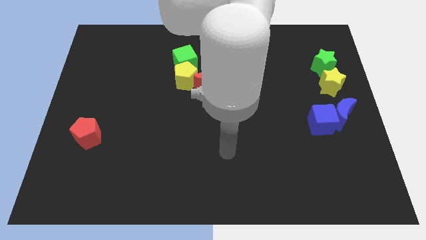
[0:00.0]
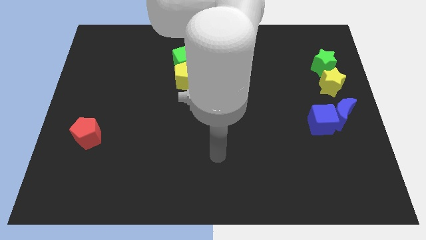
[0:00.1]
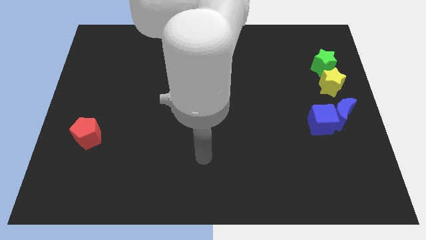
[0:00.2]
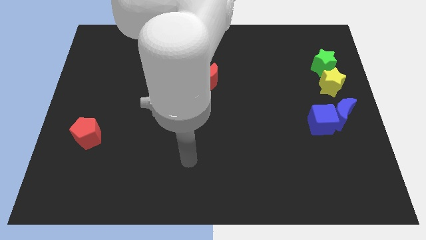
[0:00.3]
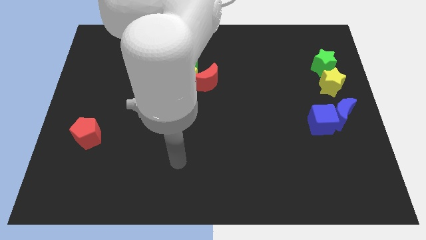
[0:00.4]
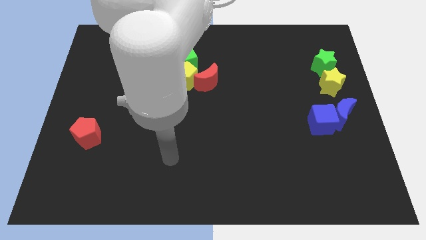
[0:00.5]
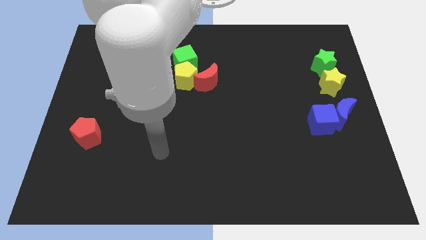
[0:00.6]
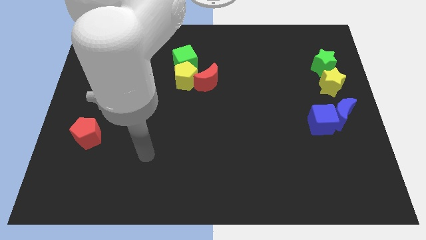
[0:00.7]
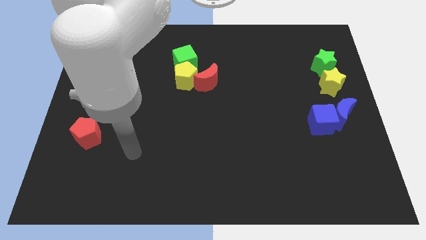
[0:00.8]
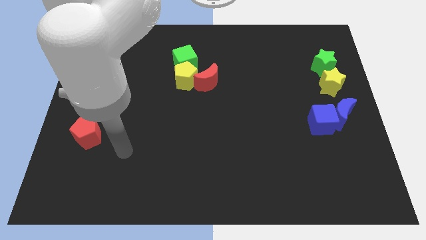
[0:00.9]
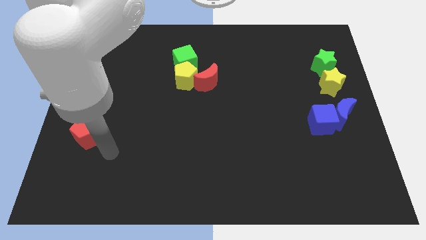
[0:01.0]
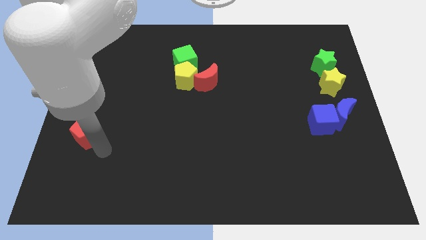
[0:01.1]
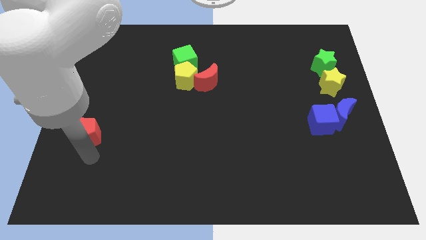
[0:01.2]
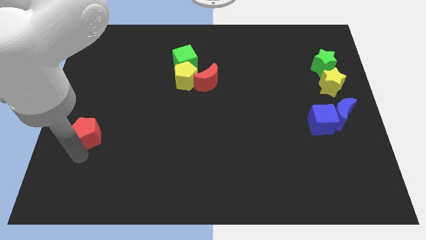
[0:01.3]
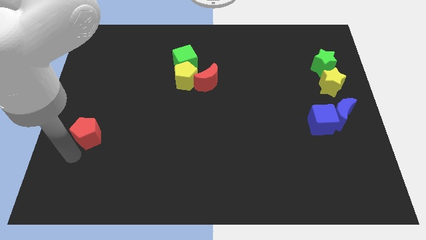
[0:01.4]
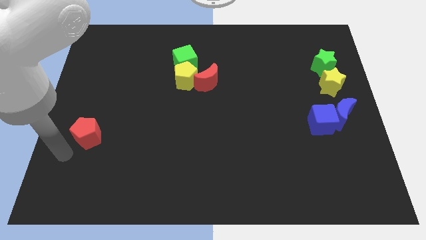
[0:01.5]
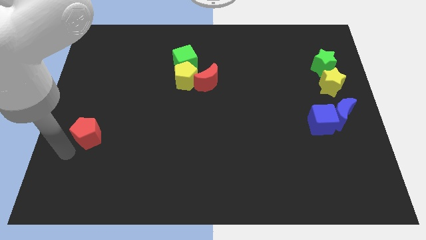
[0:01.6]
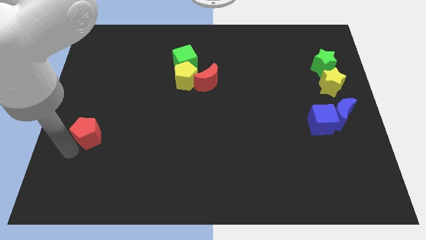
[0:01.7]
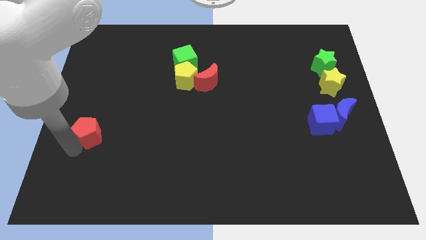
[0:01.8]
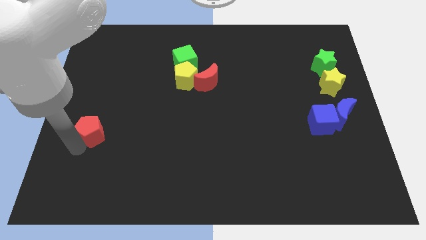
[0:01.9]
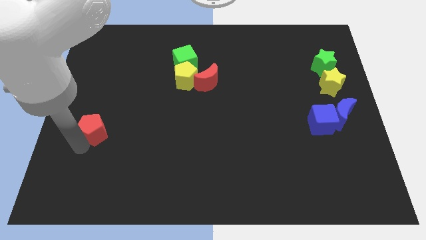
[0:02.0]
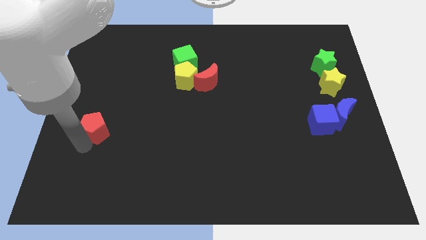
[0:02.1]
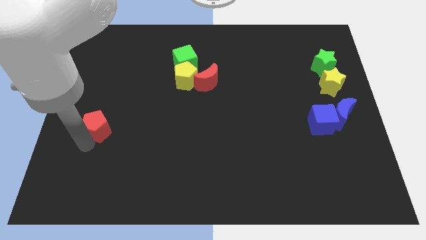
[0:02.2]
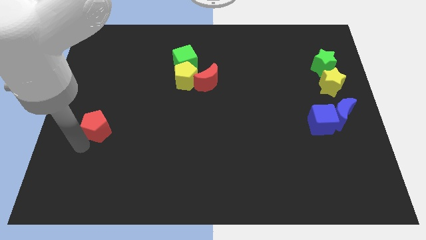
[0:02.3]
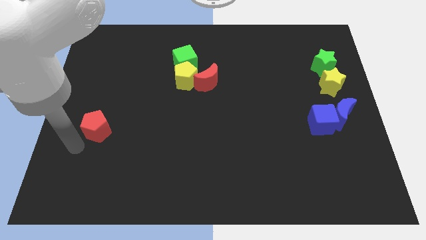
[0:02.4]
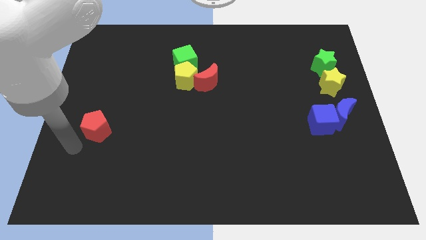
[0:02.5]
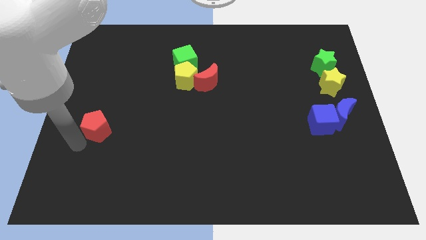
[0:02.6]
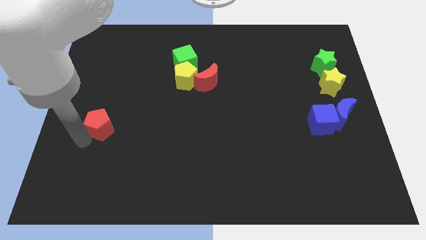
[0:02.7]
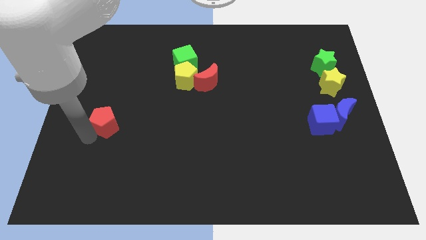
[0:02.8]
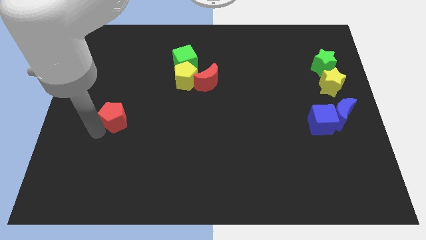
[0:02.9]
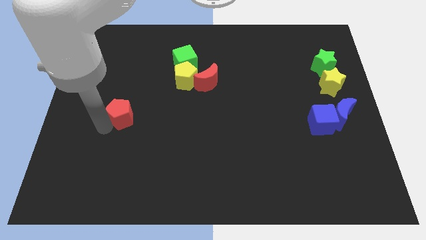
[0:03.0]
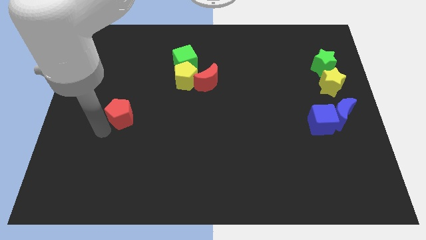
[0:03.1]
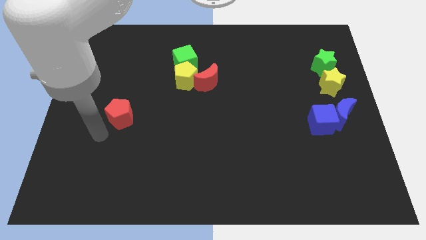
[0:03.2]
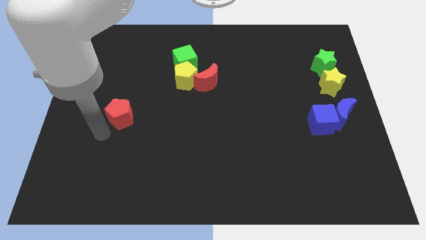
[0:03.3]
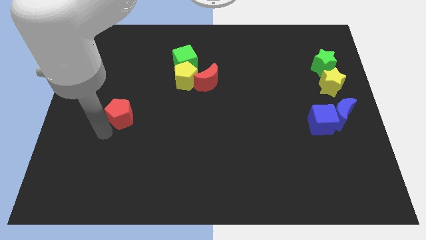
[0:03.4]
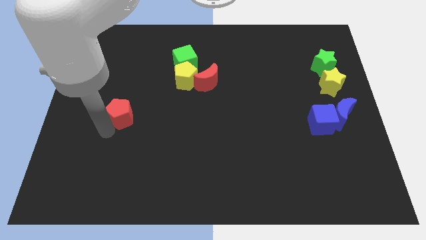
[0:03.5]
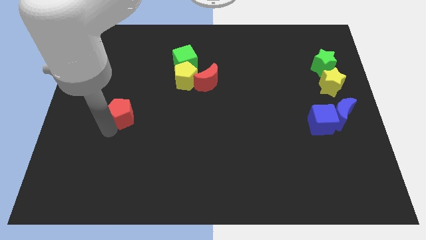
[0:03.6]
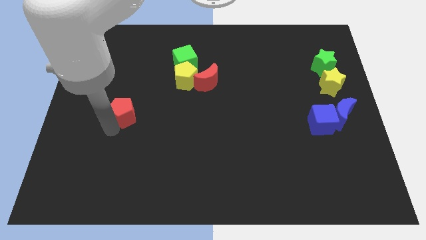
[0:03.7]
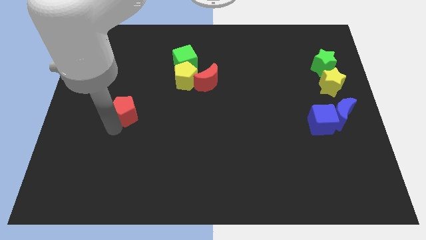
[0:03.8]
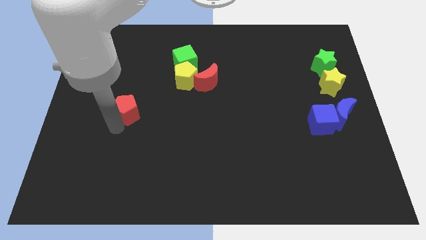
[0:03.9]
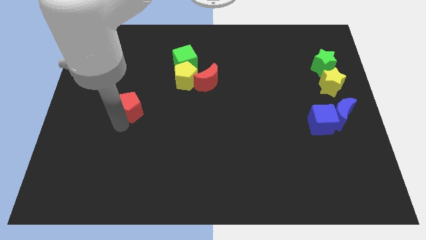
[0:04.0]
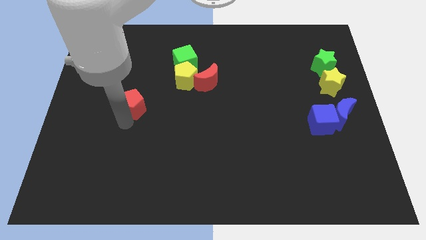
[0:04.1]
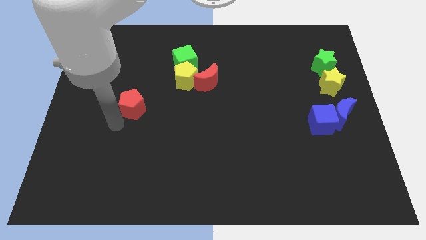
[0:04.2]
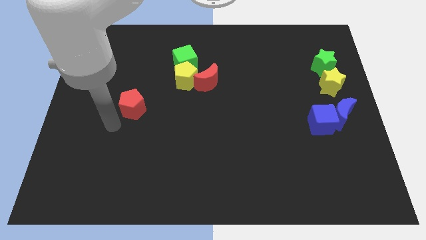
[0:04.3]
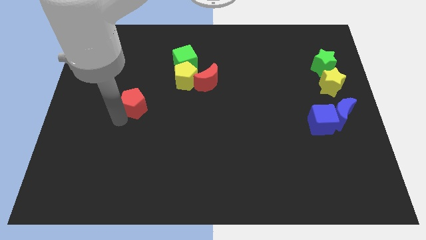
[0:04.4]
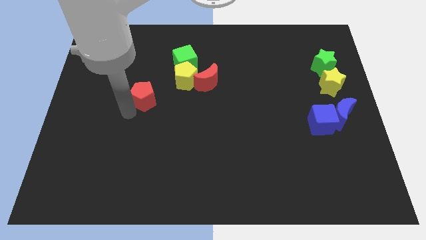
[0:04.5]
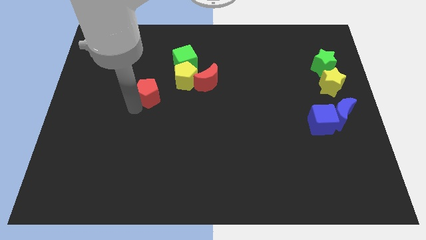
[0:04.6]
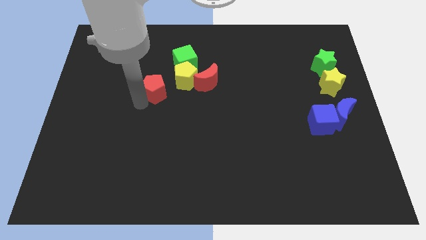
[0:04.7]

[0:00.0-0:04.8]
put the red pentagon to the left side of the red moon

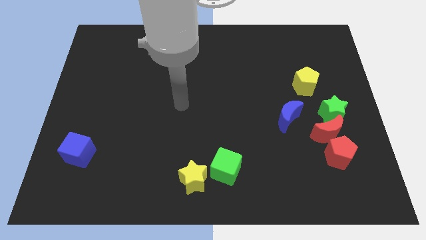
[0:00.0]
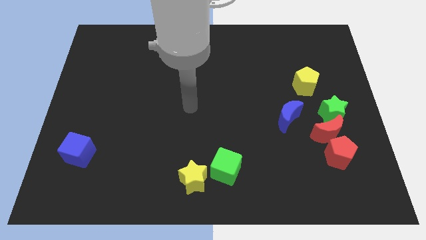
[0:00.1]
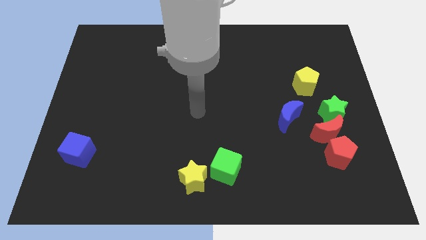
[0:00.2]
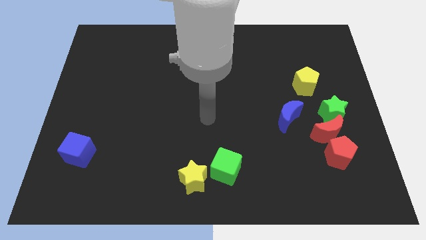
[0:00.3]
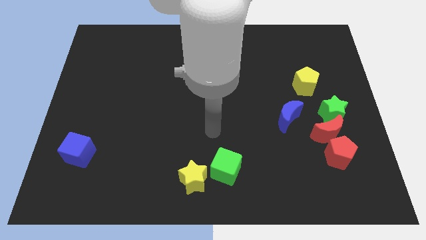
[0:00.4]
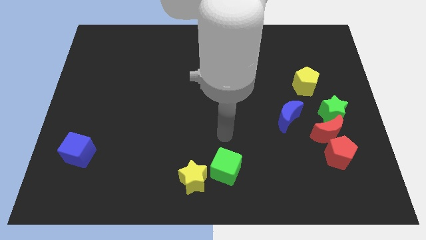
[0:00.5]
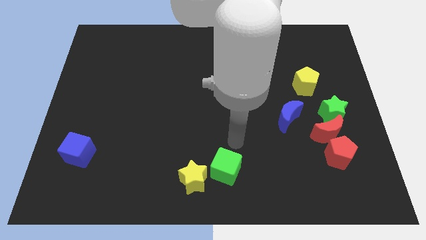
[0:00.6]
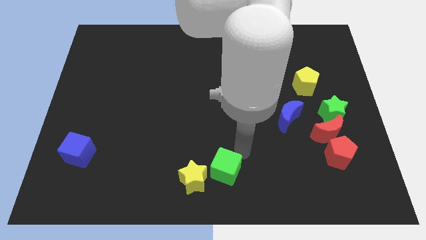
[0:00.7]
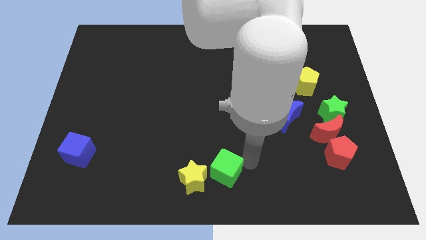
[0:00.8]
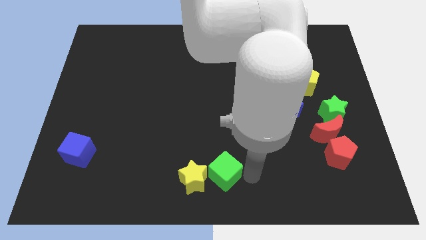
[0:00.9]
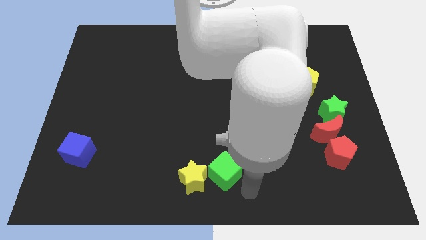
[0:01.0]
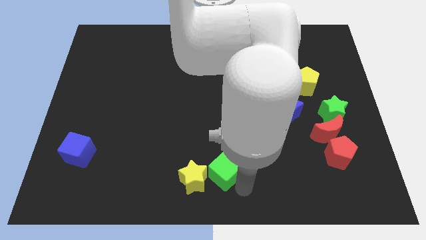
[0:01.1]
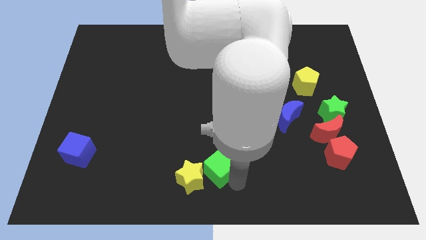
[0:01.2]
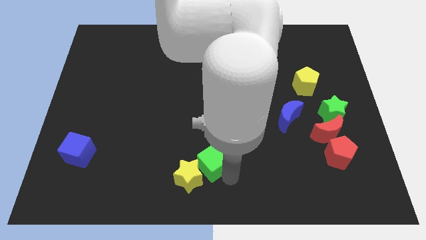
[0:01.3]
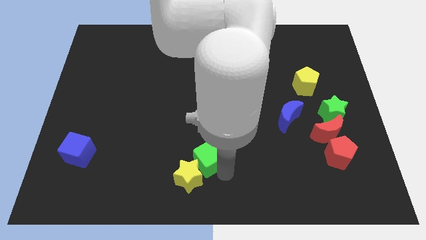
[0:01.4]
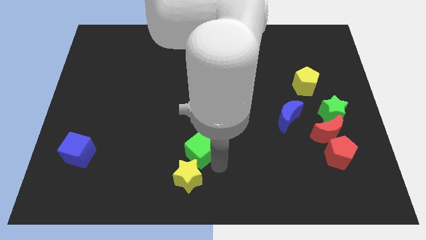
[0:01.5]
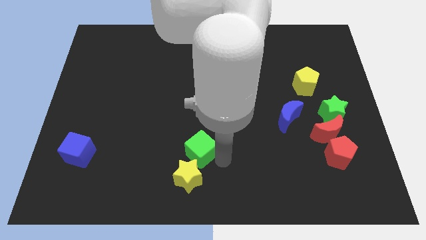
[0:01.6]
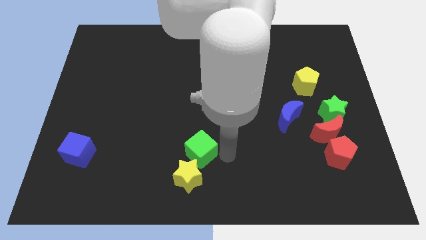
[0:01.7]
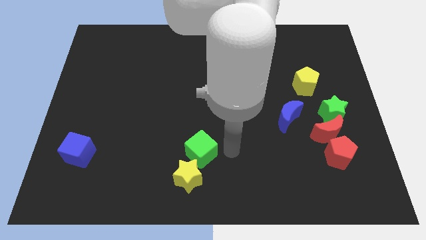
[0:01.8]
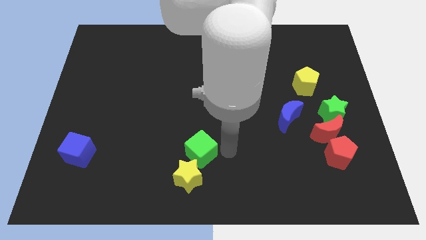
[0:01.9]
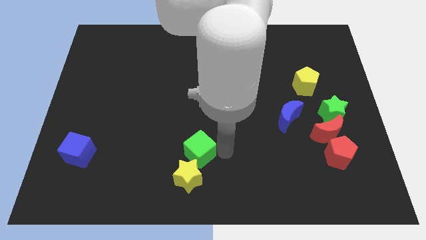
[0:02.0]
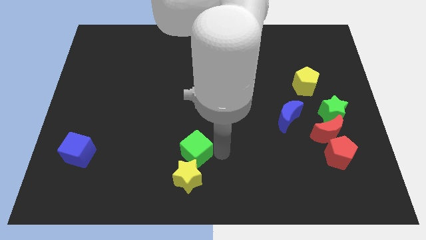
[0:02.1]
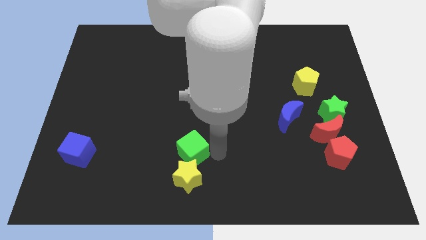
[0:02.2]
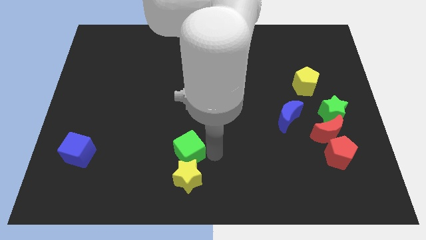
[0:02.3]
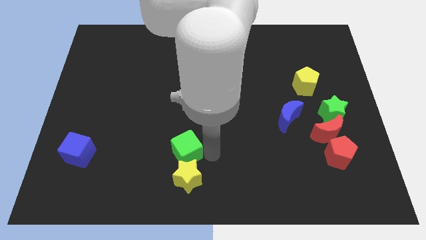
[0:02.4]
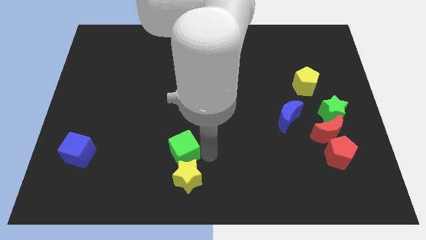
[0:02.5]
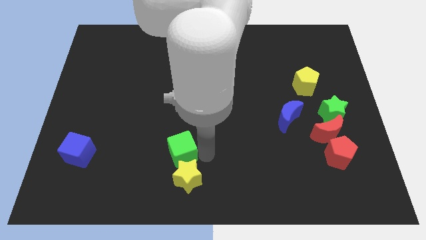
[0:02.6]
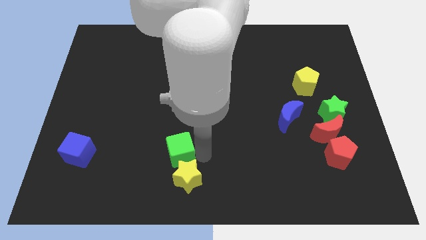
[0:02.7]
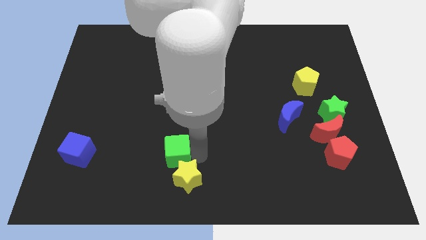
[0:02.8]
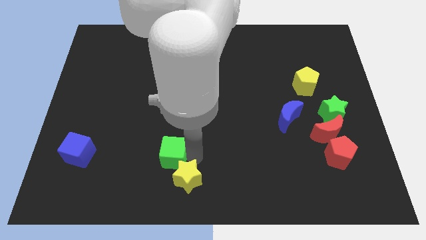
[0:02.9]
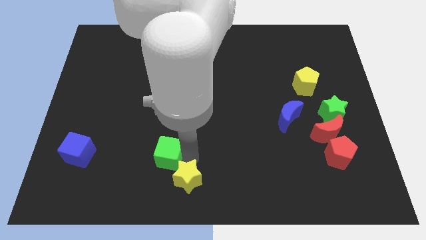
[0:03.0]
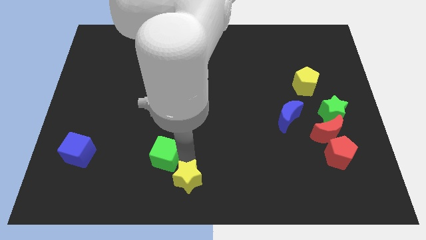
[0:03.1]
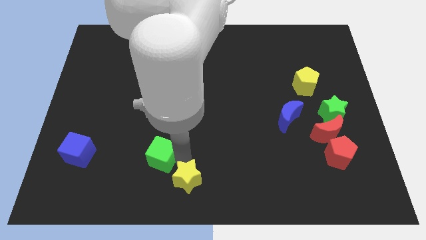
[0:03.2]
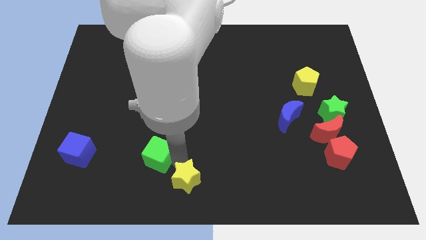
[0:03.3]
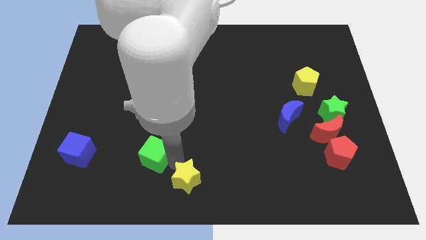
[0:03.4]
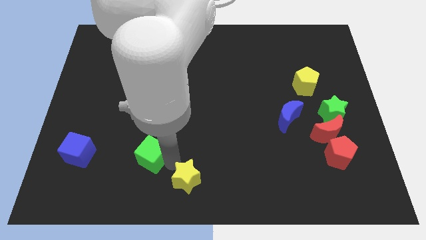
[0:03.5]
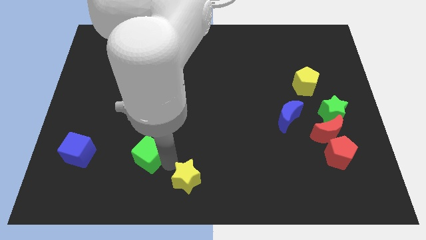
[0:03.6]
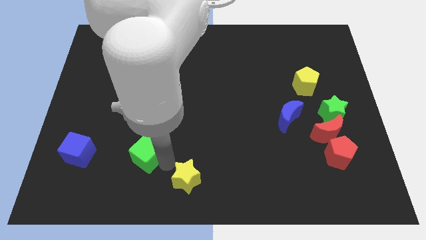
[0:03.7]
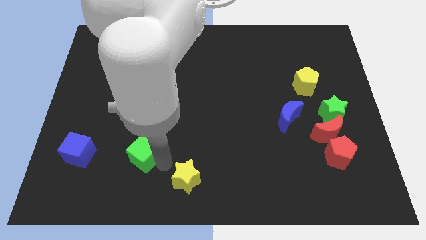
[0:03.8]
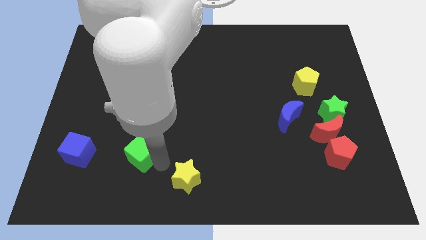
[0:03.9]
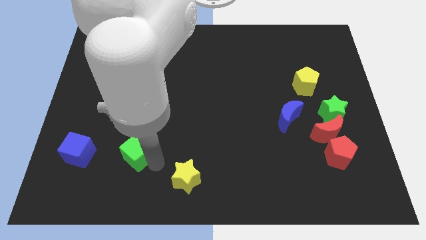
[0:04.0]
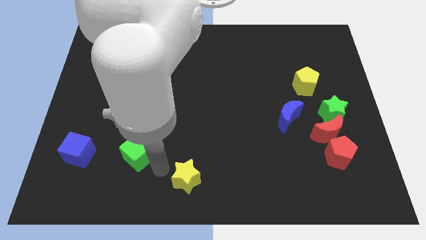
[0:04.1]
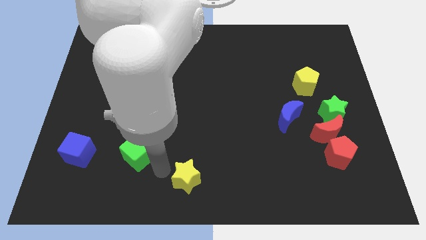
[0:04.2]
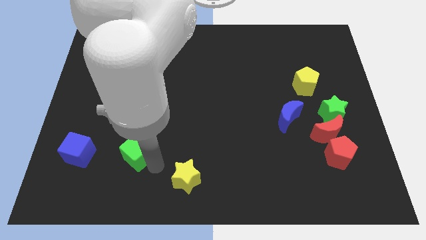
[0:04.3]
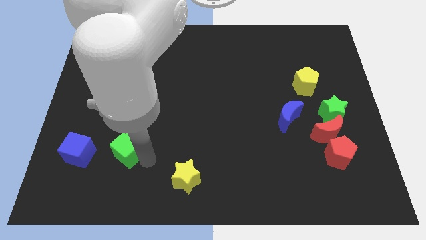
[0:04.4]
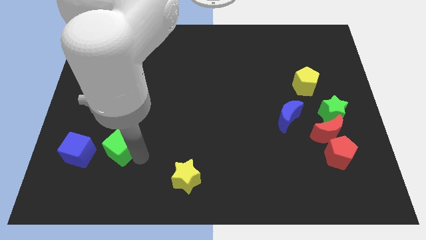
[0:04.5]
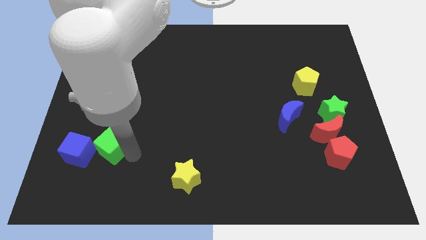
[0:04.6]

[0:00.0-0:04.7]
push the green cube diagonally up and to the right of the blue cube
